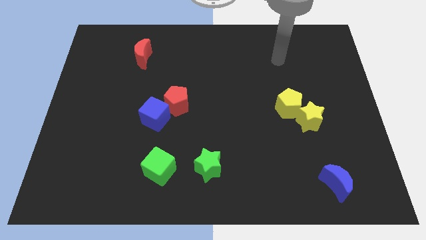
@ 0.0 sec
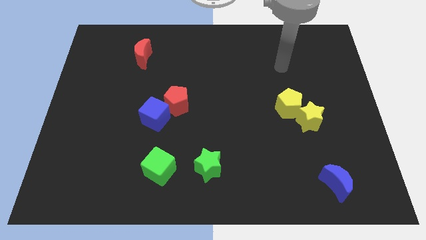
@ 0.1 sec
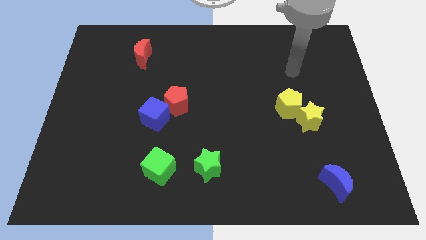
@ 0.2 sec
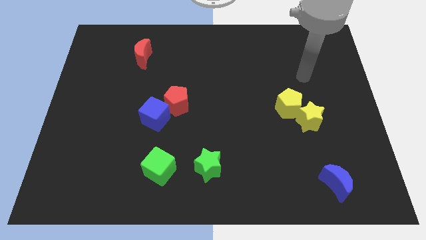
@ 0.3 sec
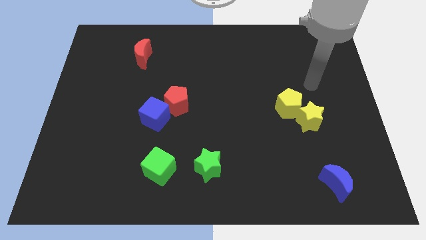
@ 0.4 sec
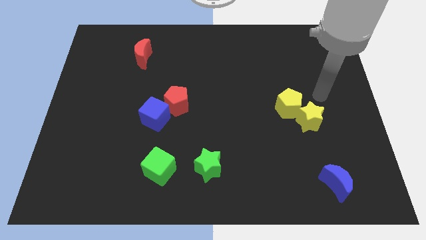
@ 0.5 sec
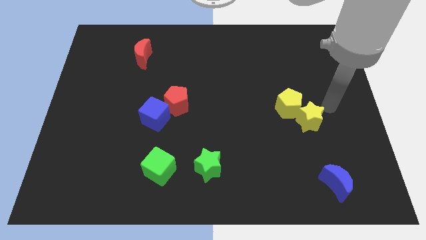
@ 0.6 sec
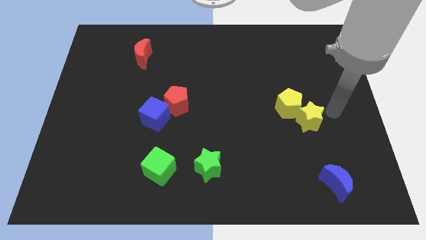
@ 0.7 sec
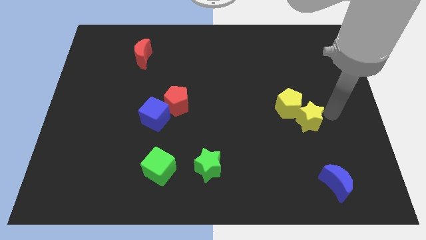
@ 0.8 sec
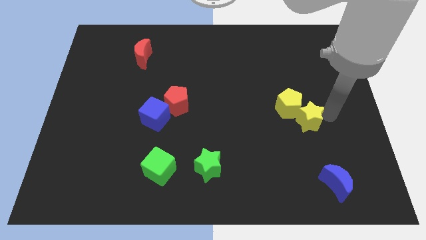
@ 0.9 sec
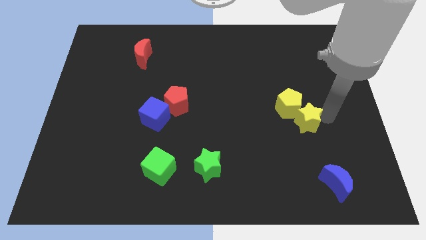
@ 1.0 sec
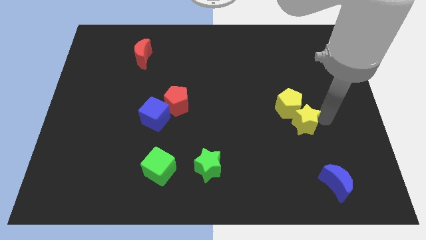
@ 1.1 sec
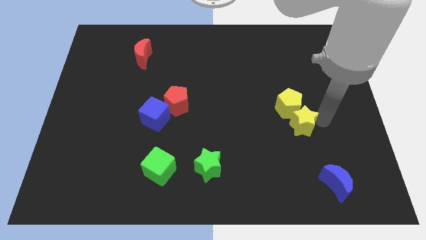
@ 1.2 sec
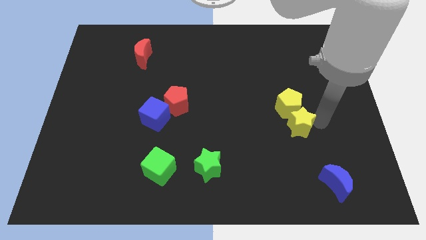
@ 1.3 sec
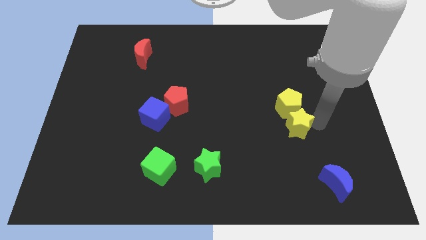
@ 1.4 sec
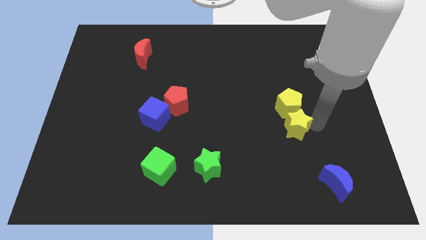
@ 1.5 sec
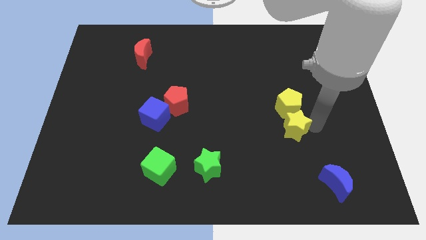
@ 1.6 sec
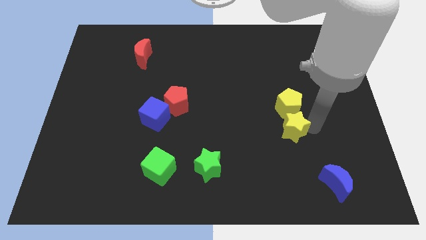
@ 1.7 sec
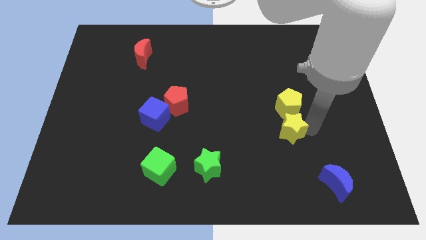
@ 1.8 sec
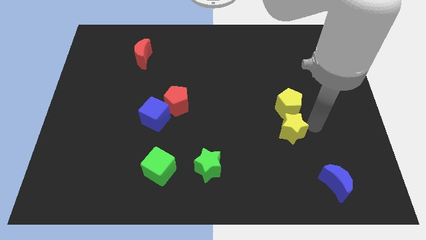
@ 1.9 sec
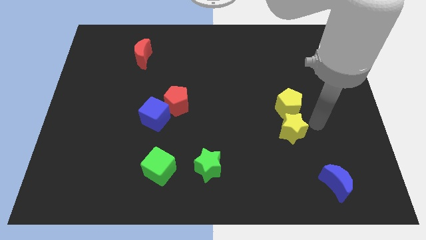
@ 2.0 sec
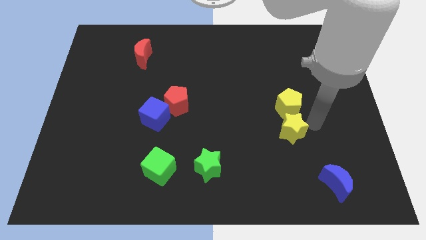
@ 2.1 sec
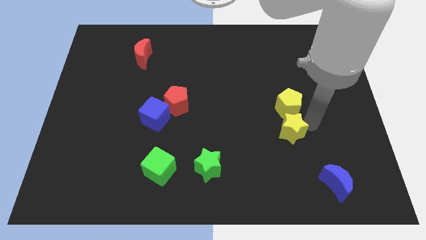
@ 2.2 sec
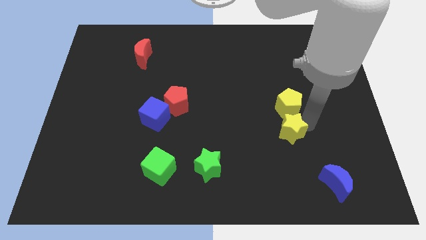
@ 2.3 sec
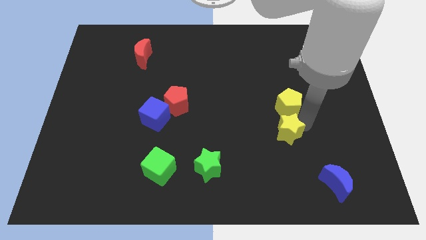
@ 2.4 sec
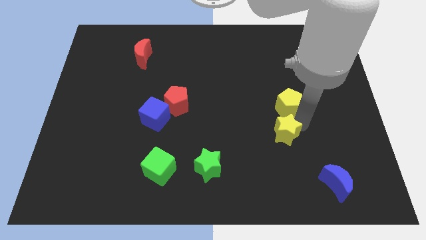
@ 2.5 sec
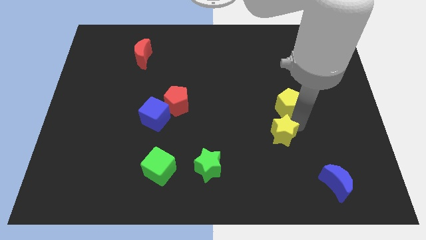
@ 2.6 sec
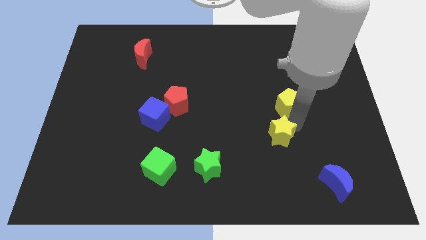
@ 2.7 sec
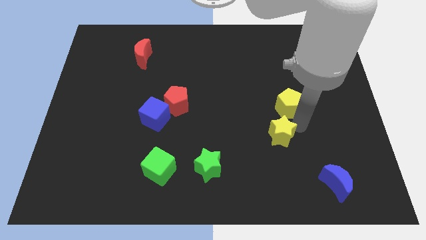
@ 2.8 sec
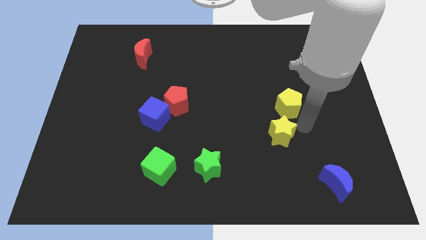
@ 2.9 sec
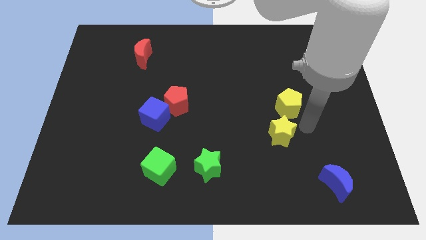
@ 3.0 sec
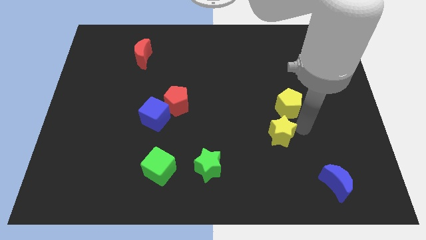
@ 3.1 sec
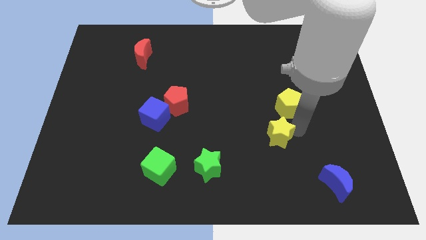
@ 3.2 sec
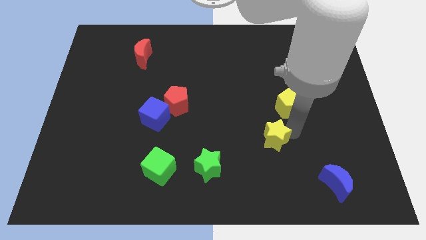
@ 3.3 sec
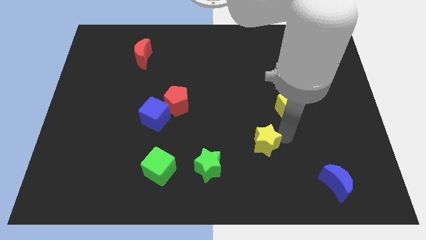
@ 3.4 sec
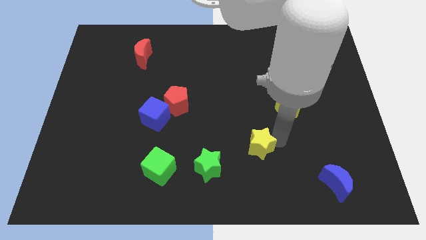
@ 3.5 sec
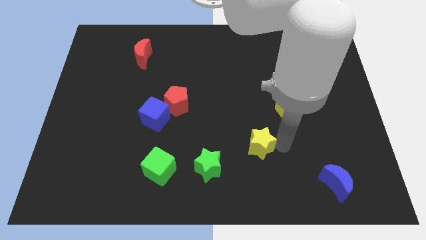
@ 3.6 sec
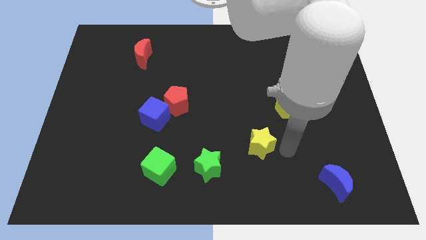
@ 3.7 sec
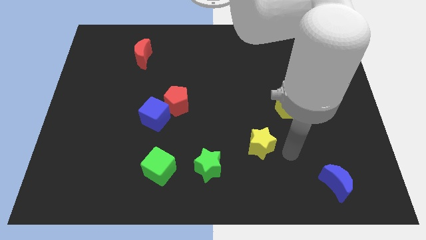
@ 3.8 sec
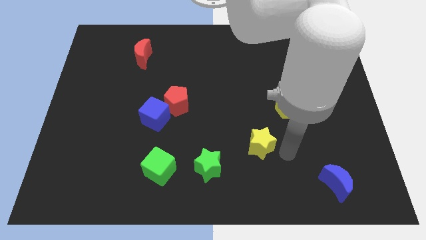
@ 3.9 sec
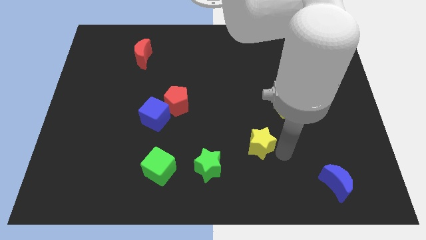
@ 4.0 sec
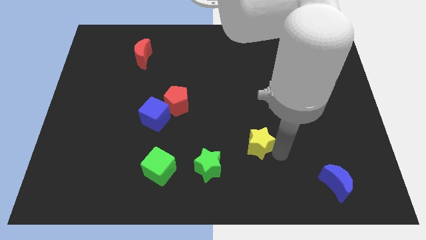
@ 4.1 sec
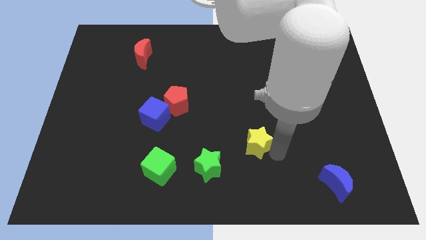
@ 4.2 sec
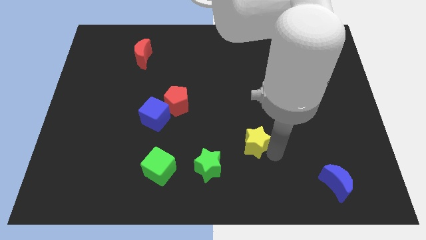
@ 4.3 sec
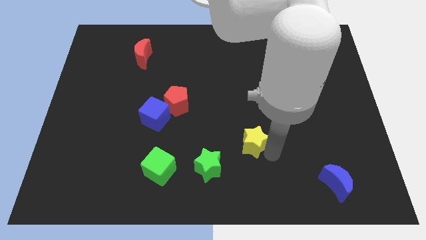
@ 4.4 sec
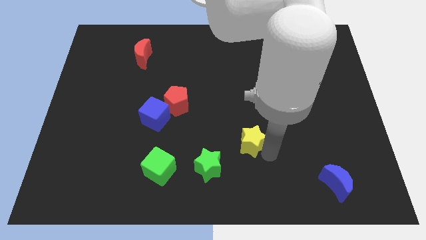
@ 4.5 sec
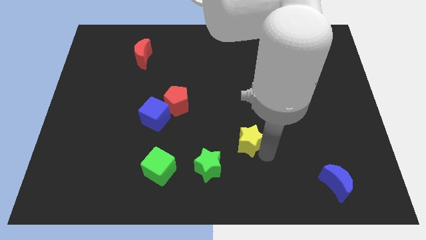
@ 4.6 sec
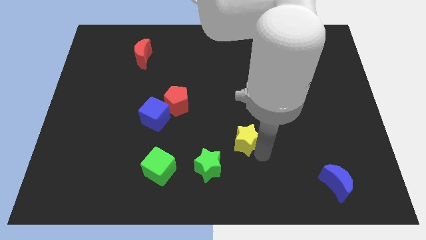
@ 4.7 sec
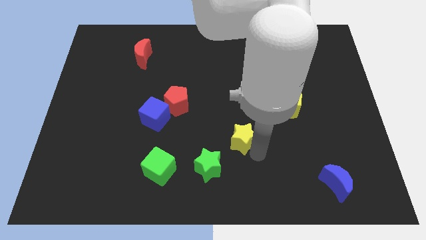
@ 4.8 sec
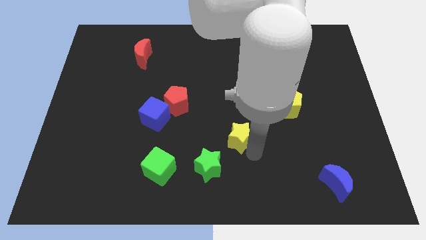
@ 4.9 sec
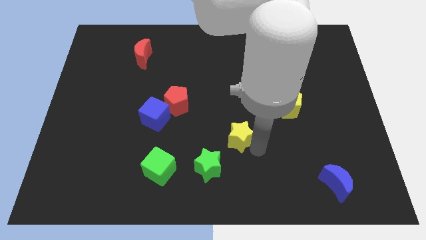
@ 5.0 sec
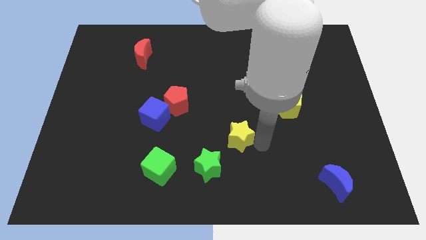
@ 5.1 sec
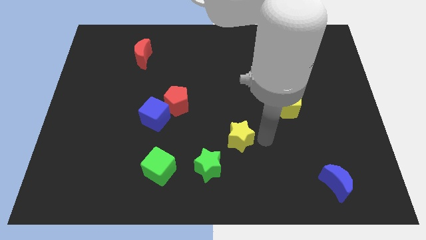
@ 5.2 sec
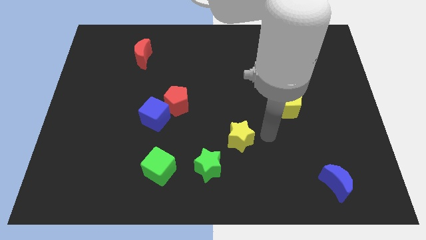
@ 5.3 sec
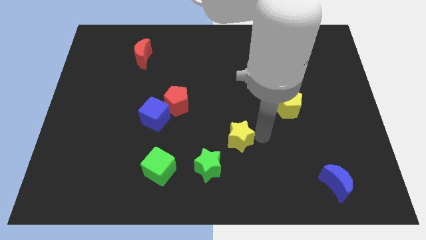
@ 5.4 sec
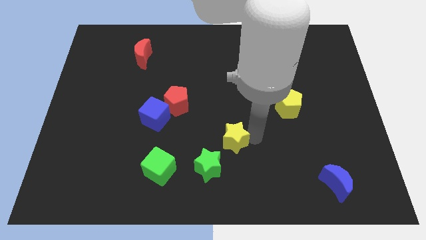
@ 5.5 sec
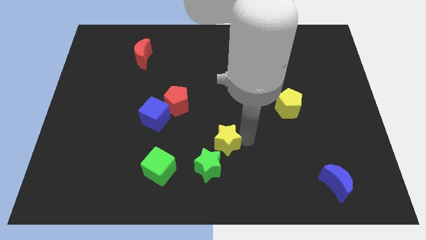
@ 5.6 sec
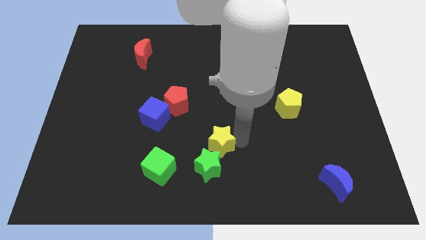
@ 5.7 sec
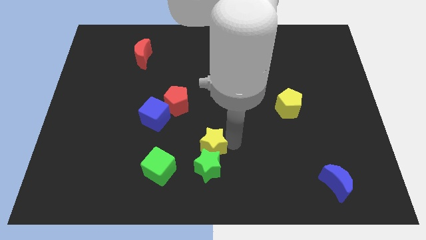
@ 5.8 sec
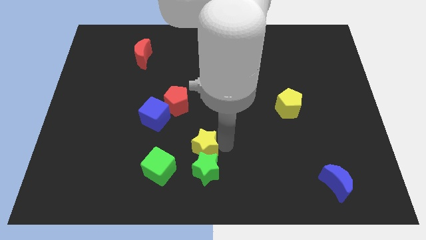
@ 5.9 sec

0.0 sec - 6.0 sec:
push the yellow star diagonally up and to the right of the green cube

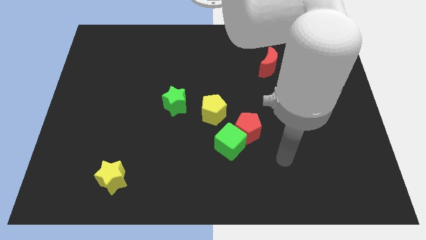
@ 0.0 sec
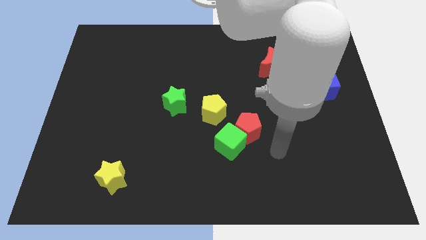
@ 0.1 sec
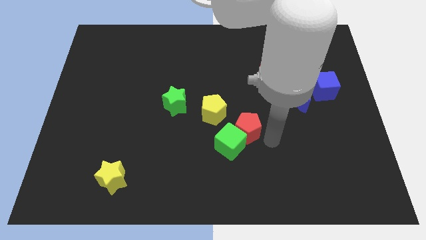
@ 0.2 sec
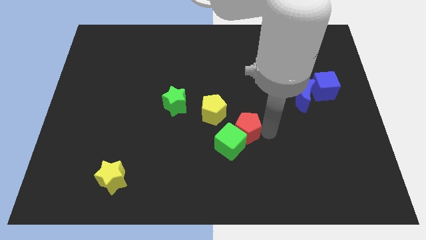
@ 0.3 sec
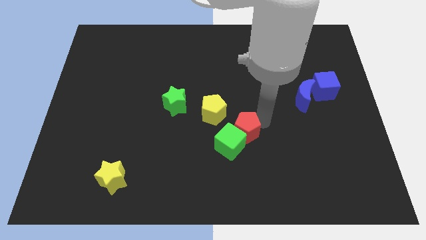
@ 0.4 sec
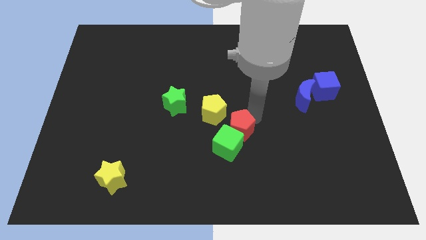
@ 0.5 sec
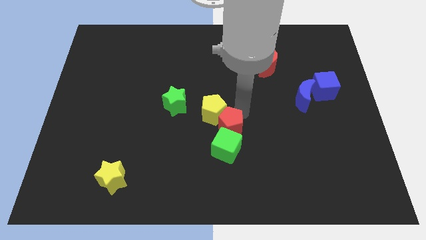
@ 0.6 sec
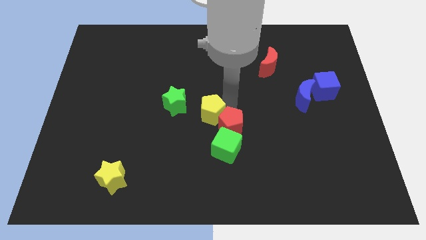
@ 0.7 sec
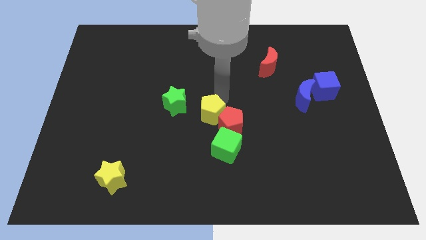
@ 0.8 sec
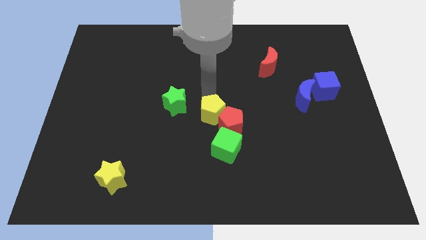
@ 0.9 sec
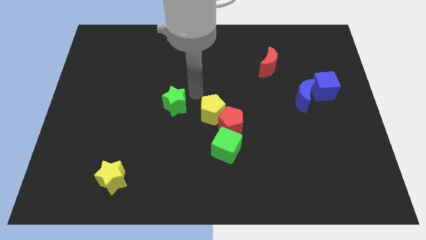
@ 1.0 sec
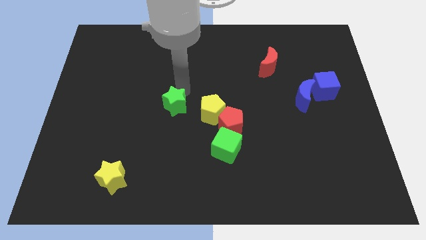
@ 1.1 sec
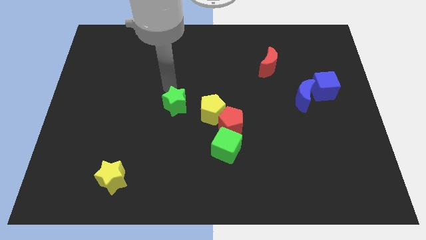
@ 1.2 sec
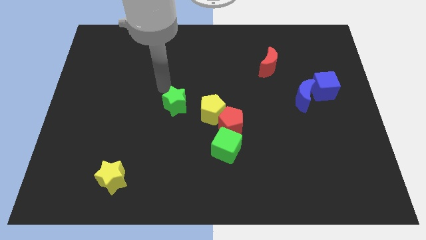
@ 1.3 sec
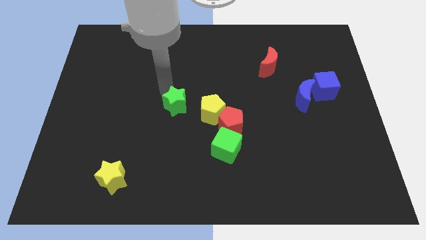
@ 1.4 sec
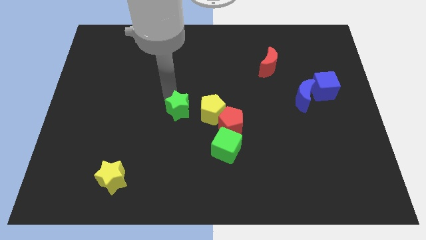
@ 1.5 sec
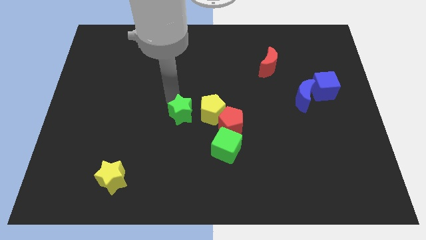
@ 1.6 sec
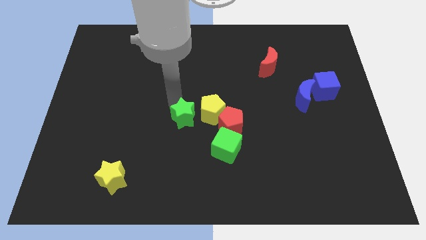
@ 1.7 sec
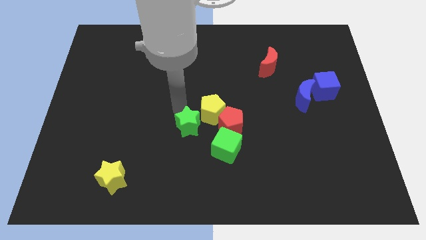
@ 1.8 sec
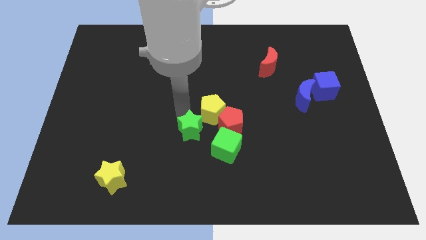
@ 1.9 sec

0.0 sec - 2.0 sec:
put the green star below the yellow pentagon
